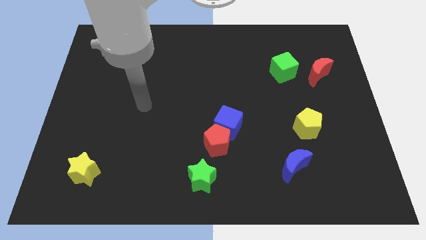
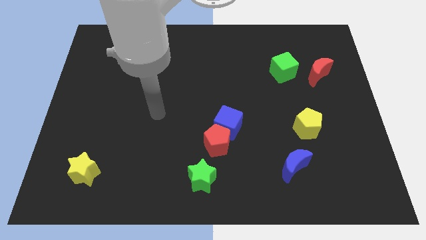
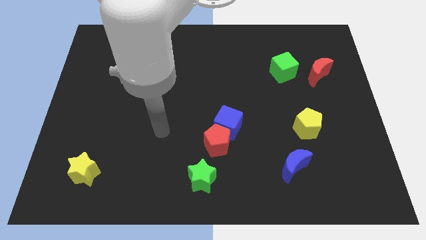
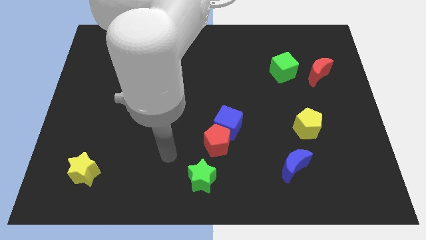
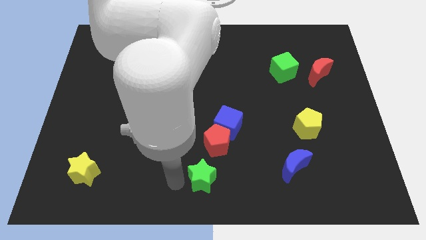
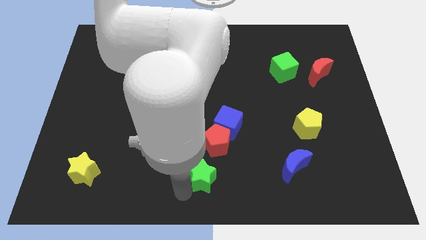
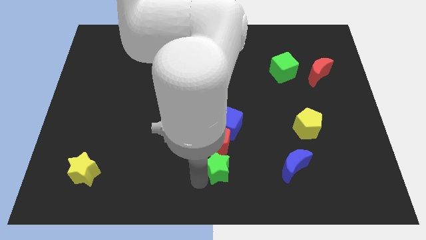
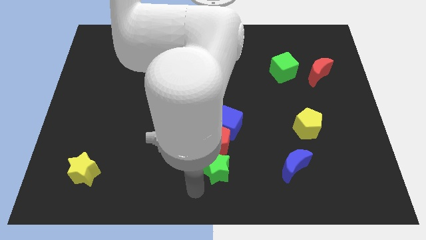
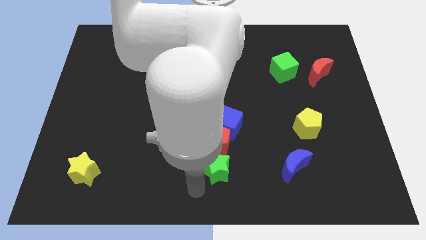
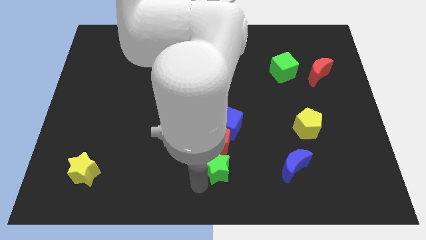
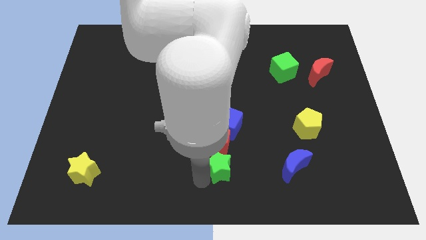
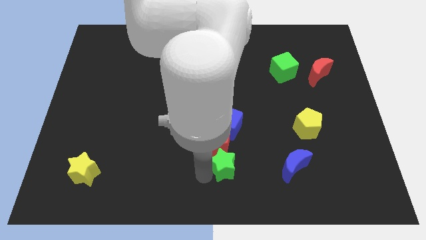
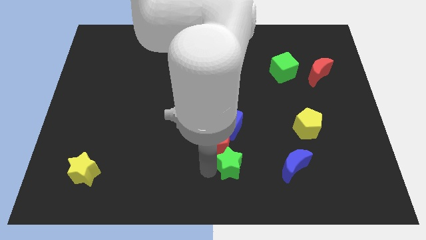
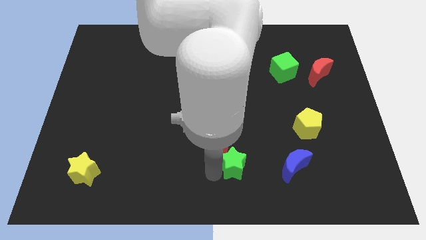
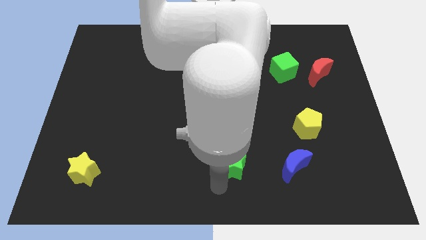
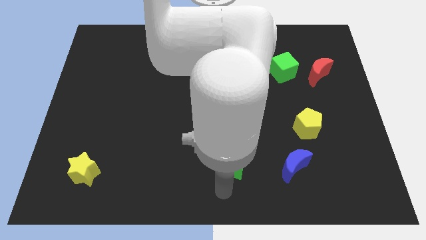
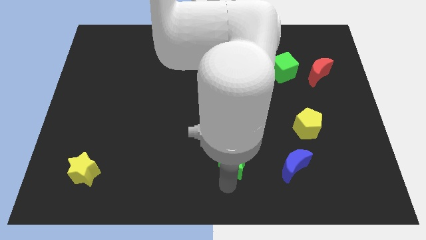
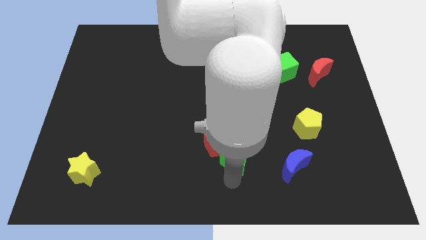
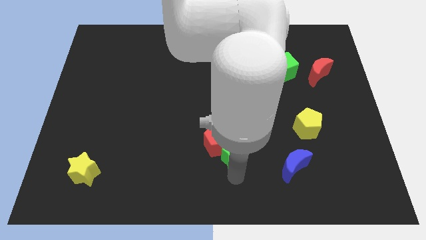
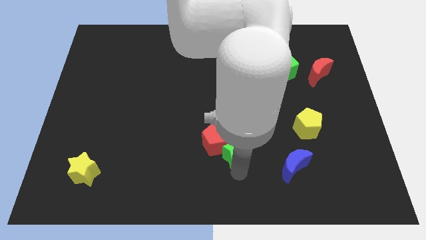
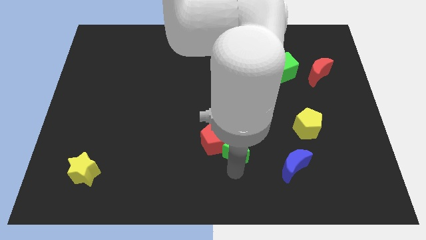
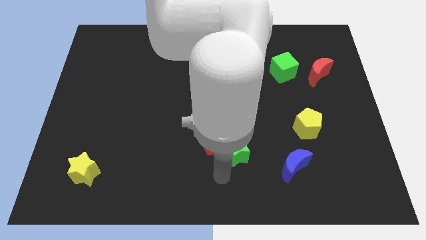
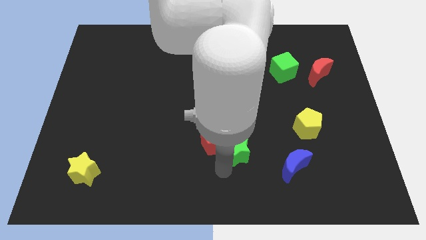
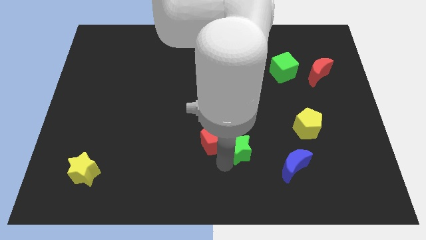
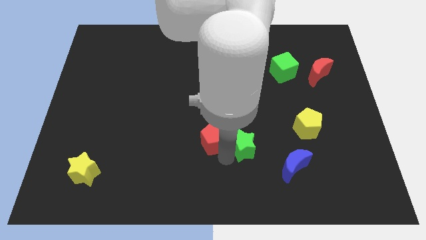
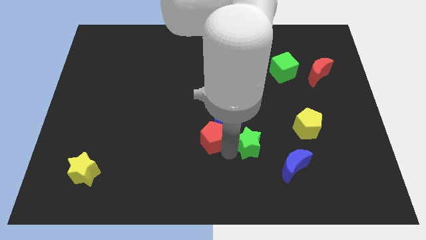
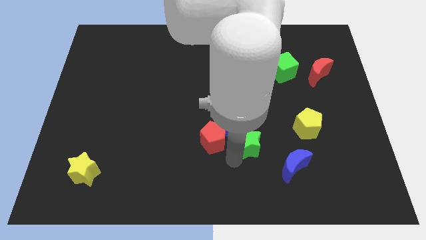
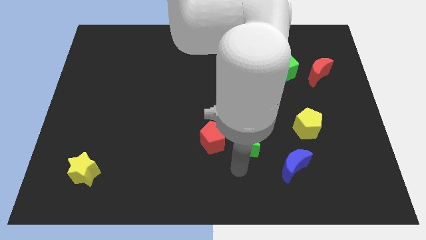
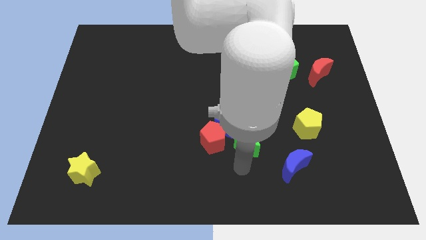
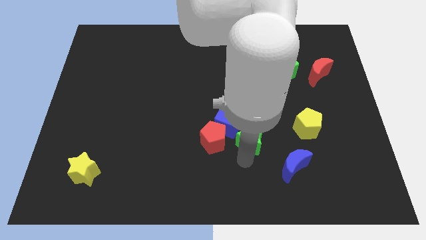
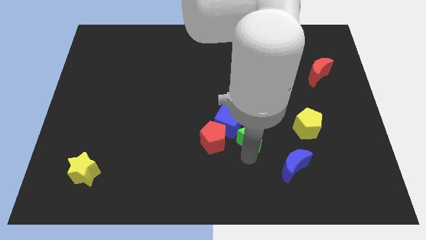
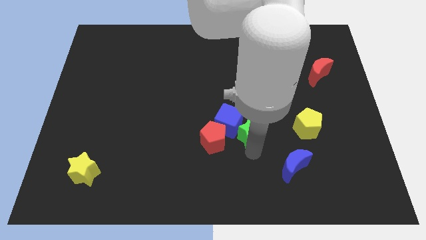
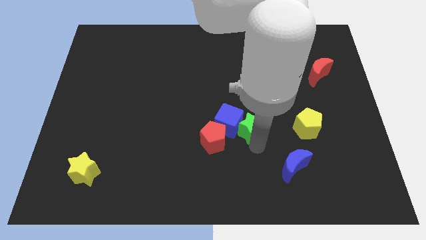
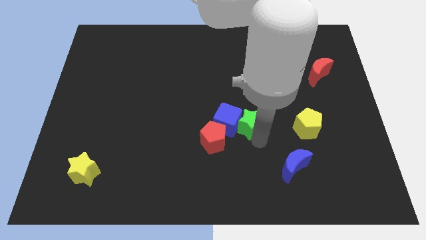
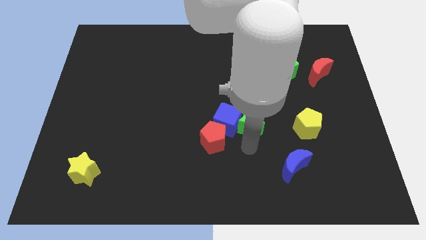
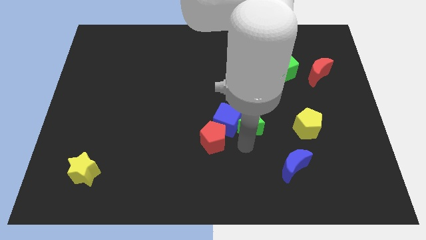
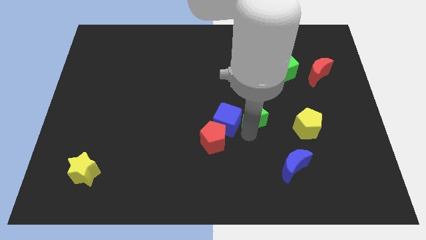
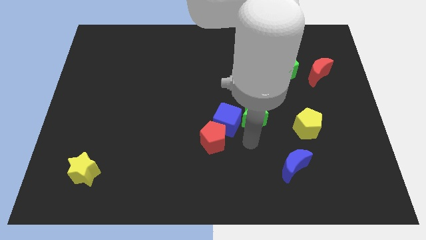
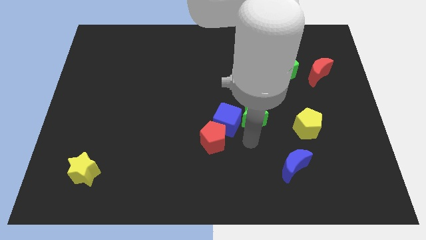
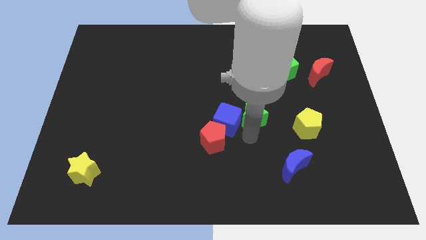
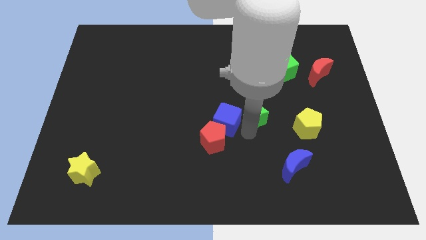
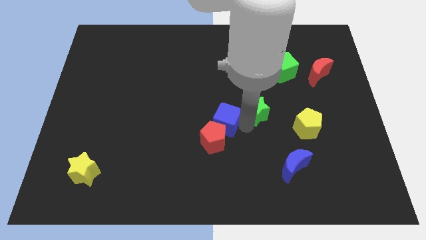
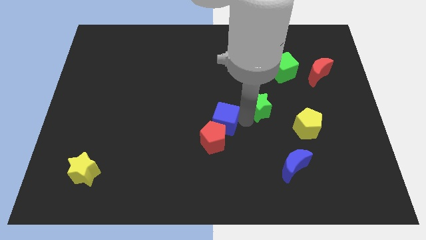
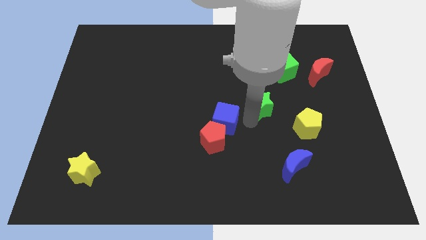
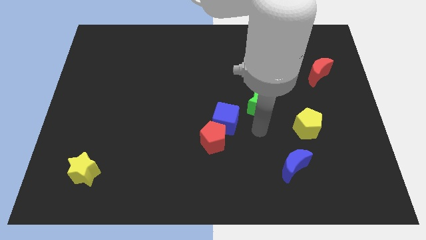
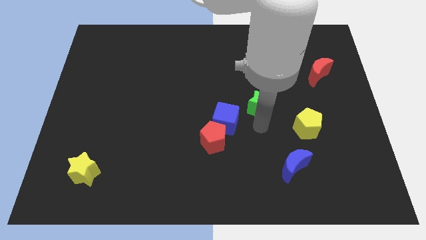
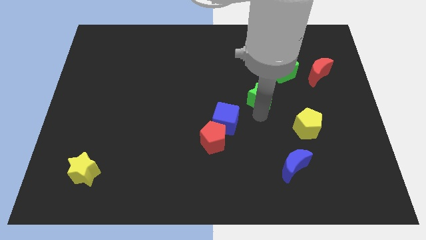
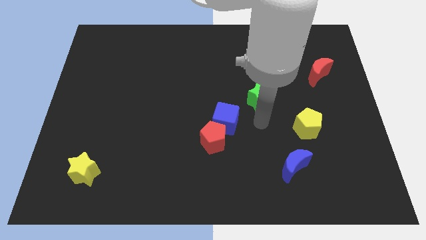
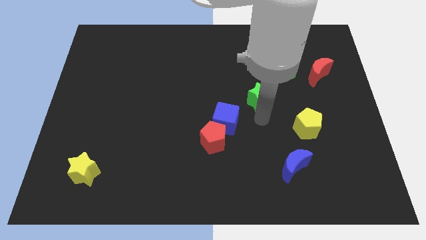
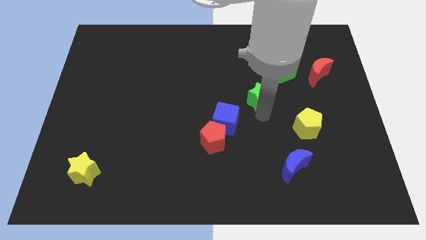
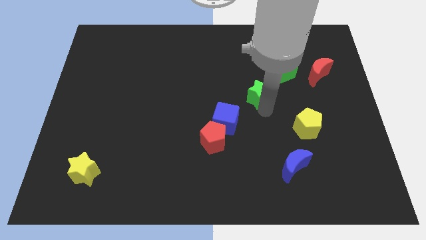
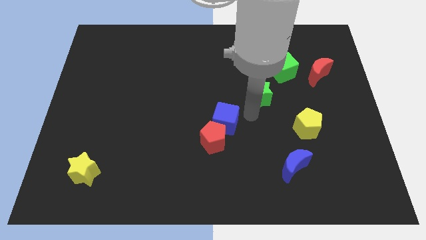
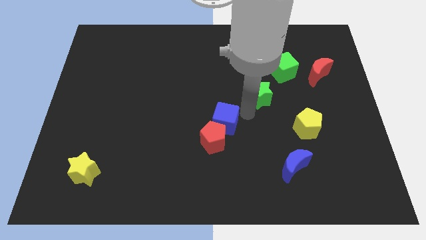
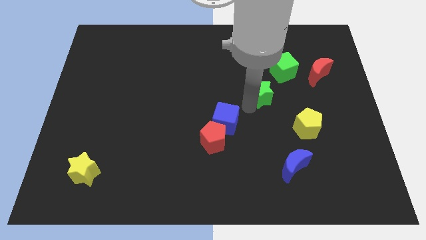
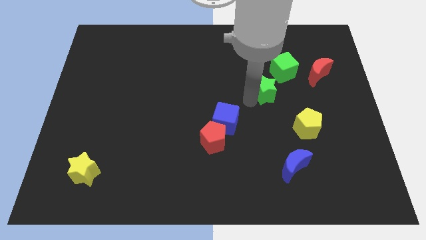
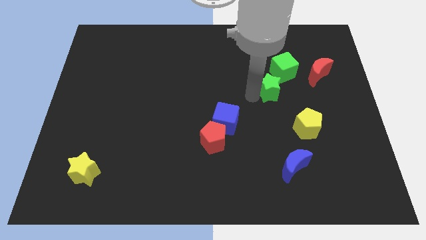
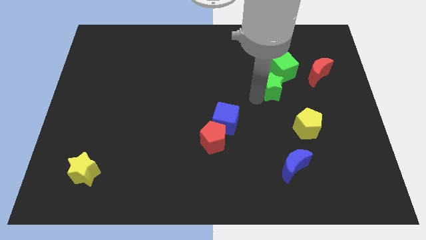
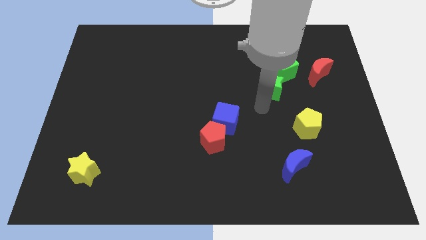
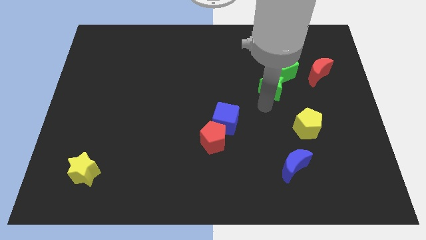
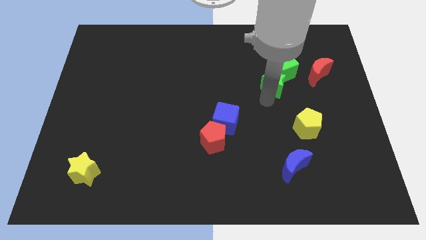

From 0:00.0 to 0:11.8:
move the green star just left of the red moon

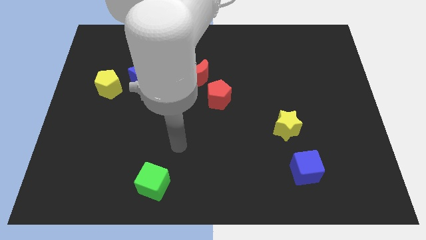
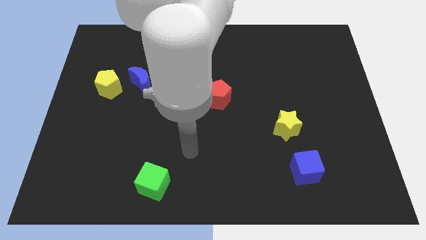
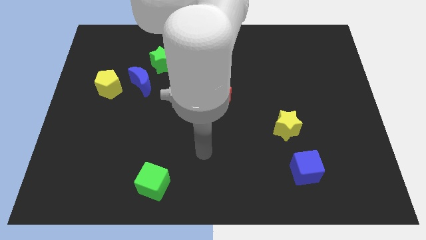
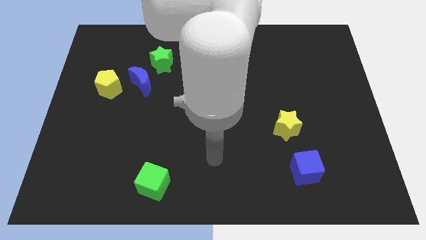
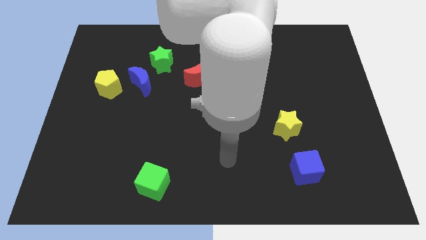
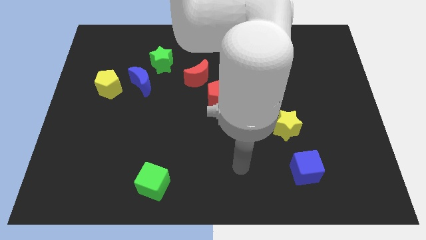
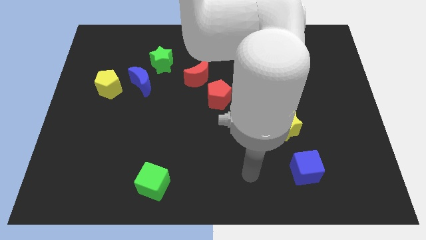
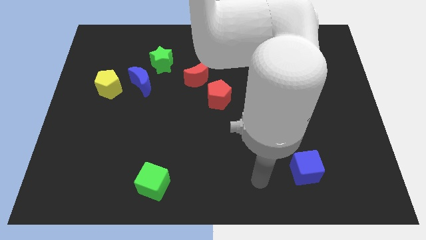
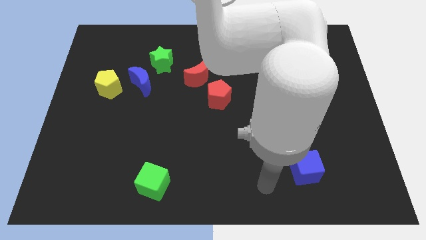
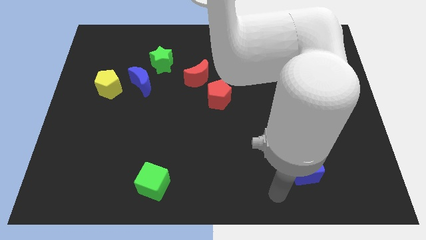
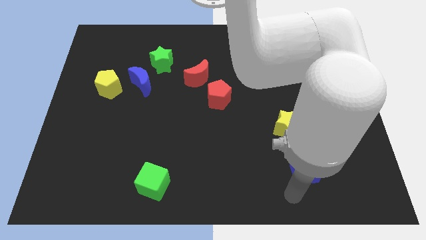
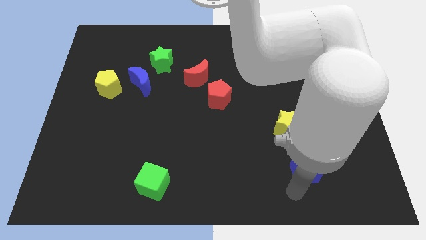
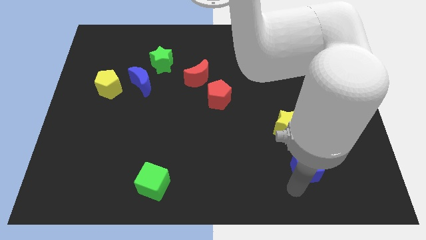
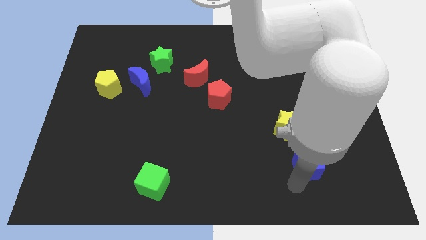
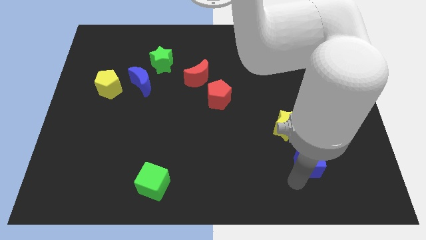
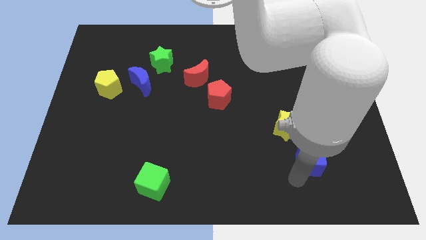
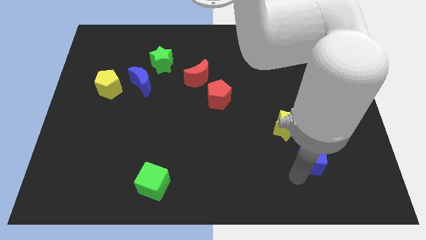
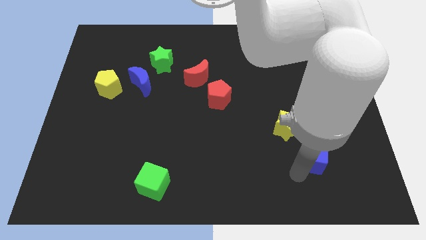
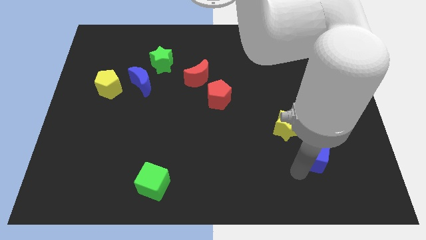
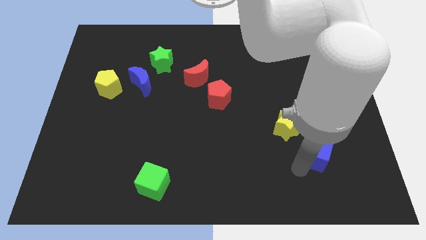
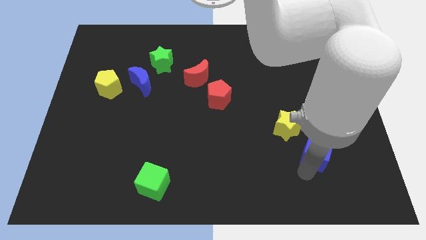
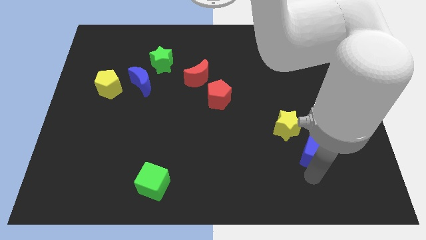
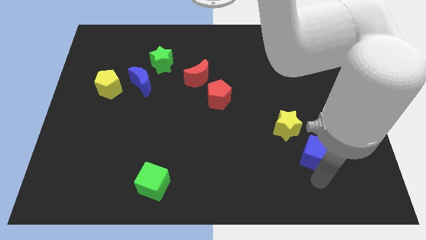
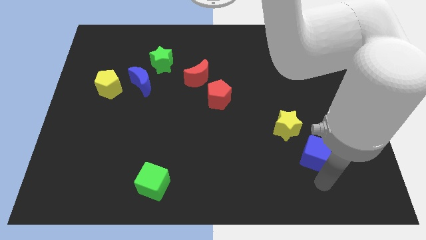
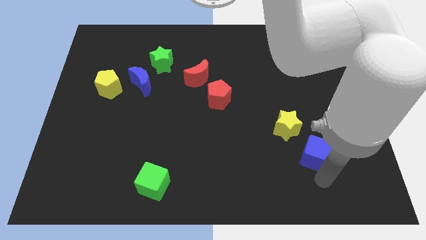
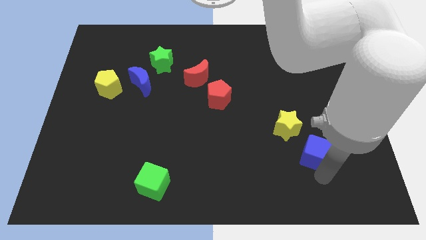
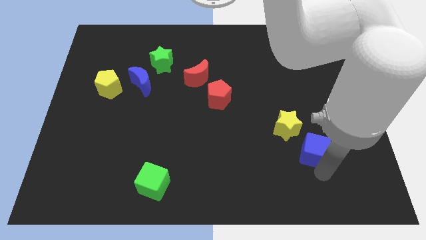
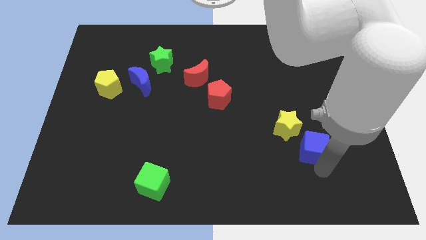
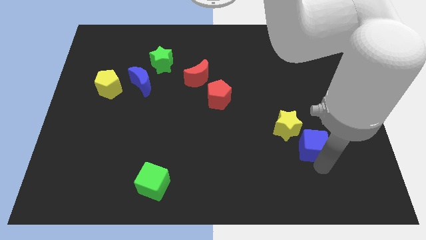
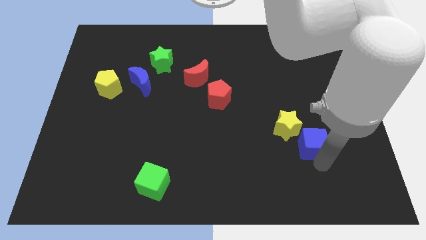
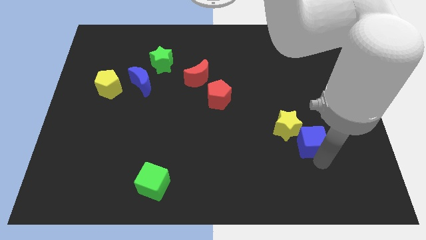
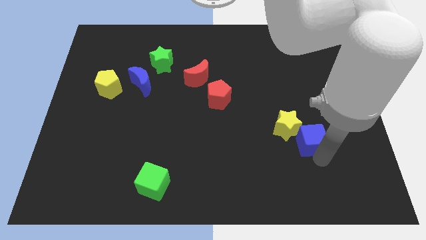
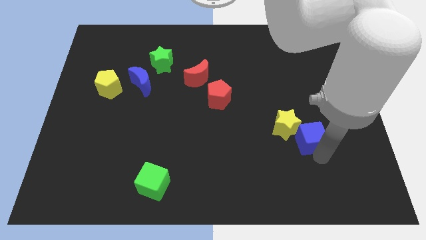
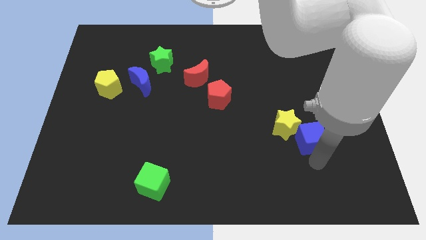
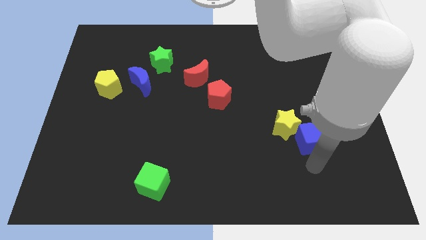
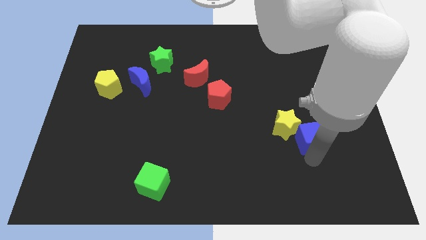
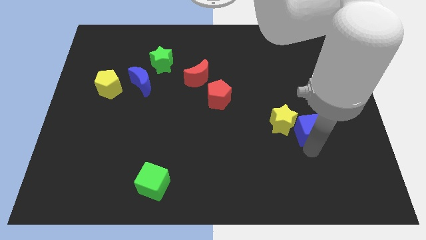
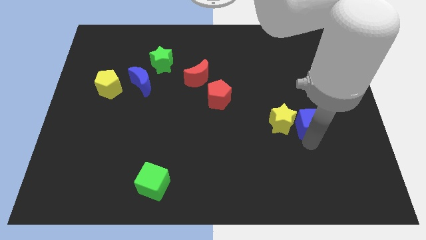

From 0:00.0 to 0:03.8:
push the blue cube to the top right side of the yellow star
